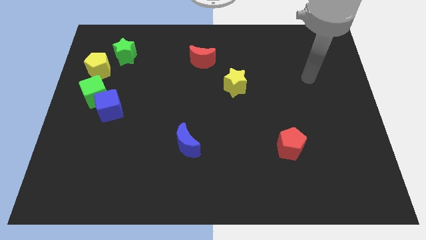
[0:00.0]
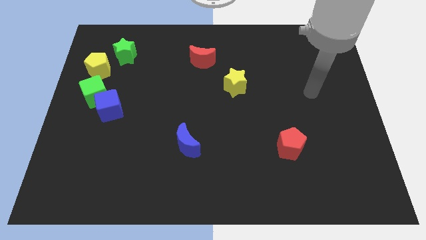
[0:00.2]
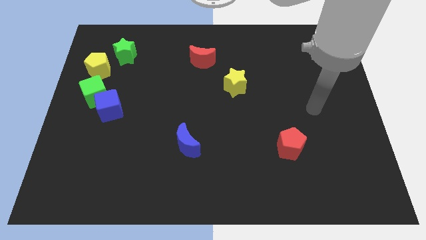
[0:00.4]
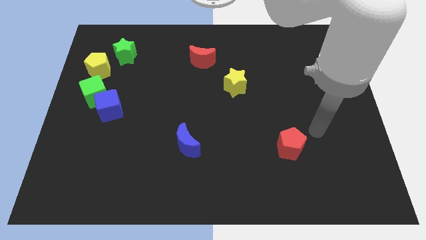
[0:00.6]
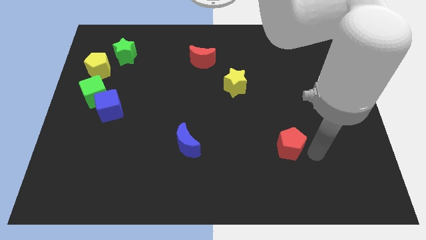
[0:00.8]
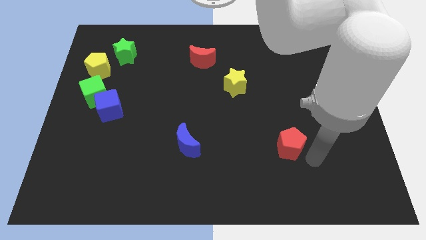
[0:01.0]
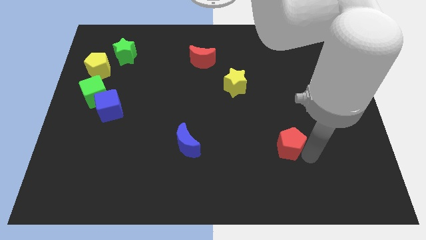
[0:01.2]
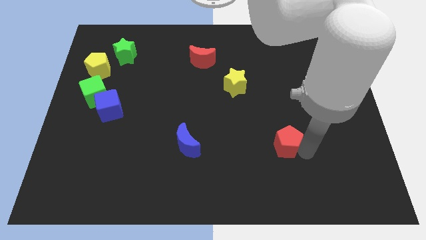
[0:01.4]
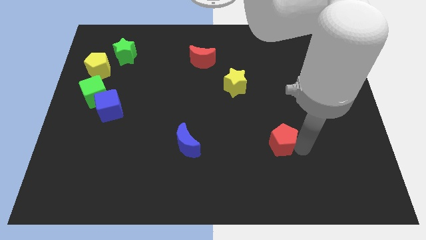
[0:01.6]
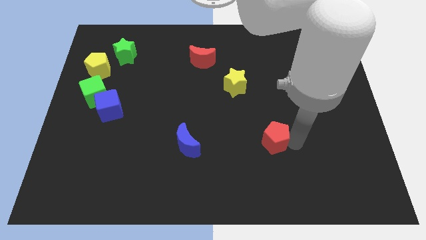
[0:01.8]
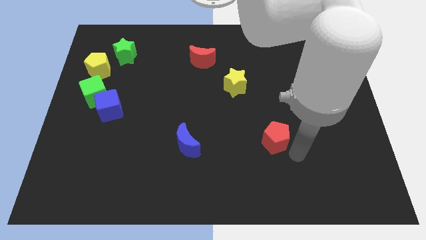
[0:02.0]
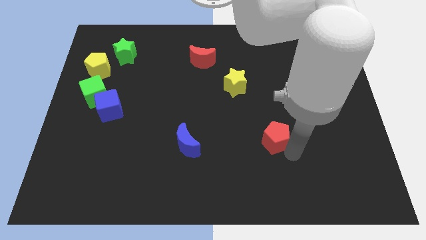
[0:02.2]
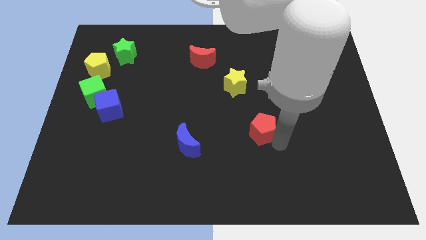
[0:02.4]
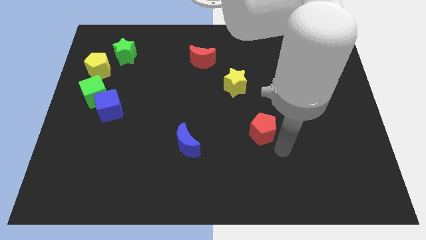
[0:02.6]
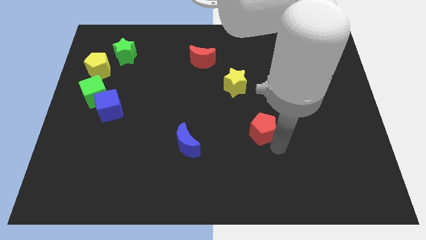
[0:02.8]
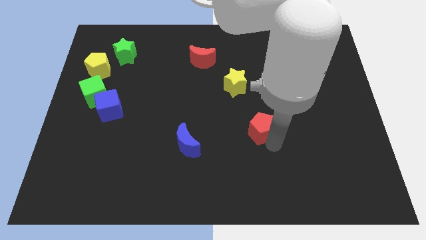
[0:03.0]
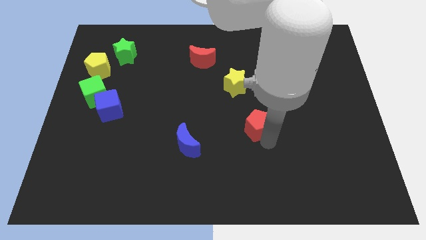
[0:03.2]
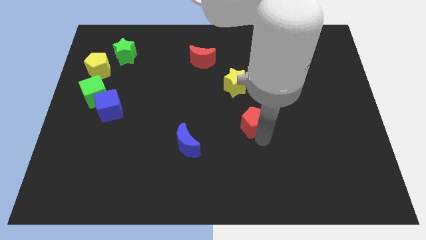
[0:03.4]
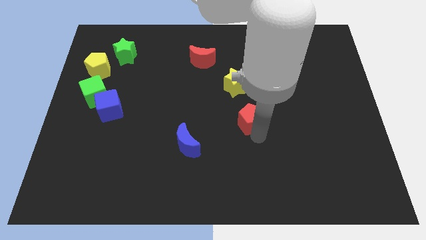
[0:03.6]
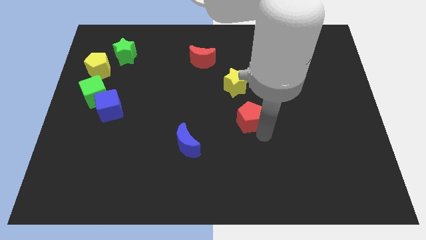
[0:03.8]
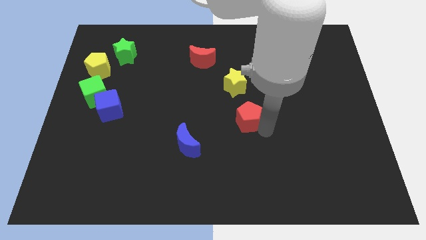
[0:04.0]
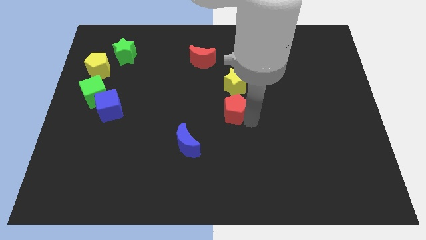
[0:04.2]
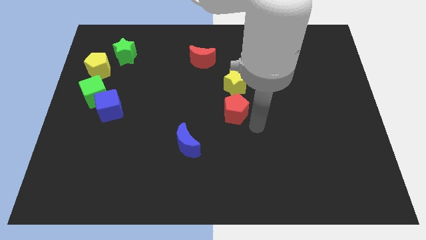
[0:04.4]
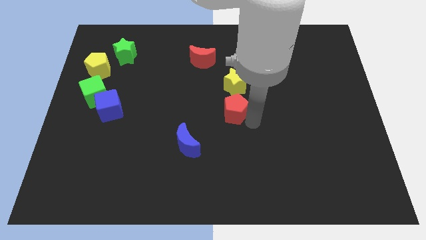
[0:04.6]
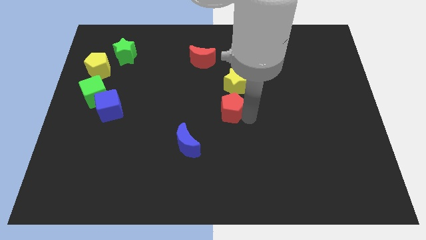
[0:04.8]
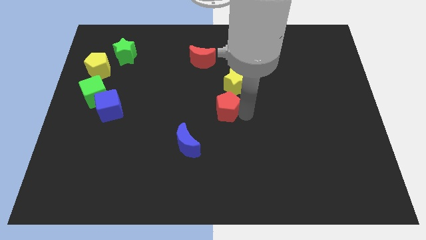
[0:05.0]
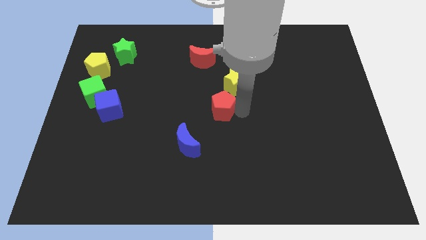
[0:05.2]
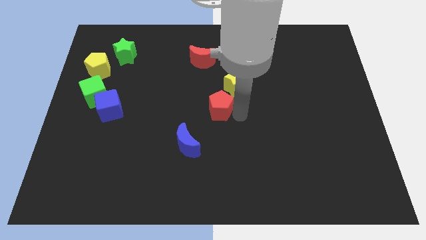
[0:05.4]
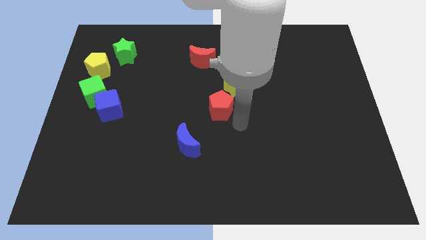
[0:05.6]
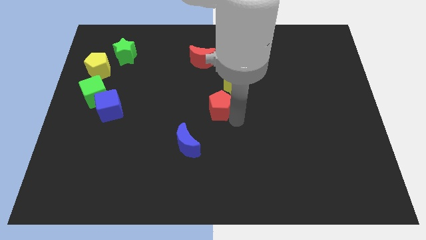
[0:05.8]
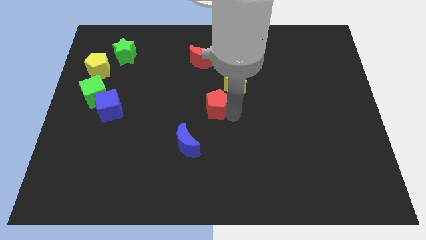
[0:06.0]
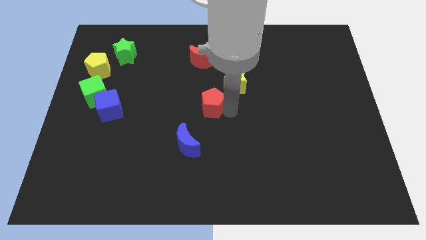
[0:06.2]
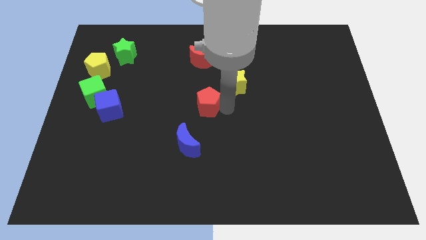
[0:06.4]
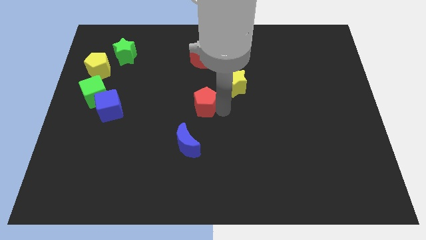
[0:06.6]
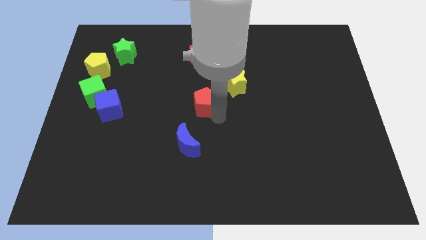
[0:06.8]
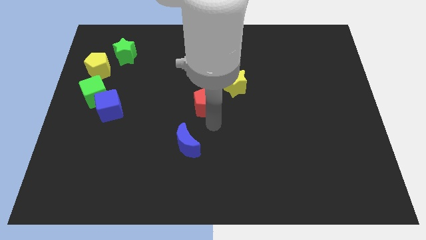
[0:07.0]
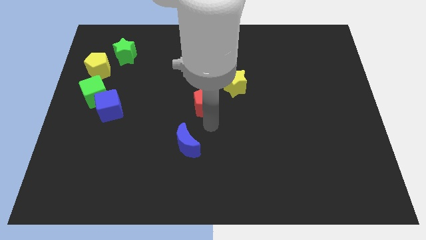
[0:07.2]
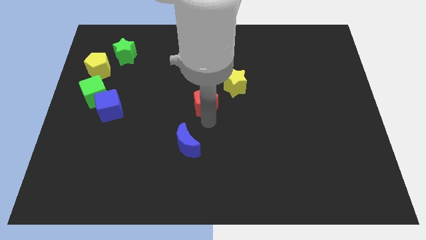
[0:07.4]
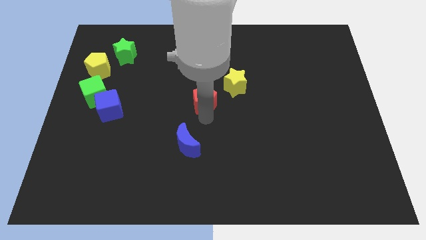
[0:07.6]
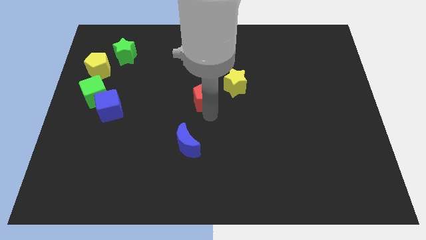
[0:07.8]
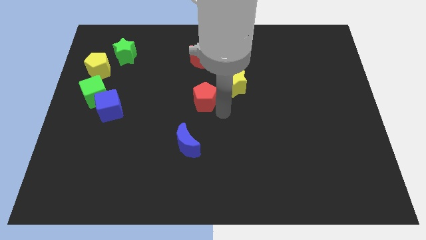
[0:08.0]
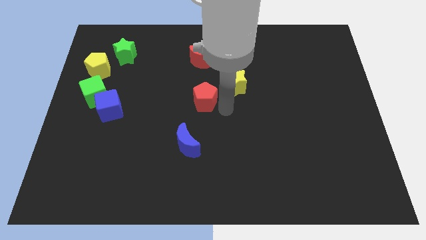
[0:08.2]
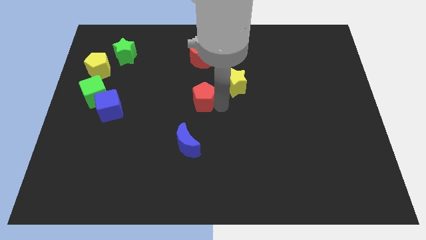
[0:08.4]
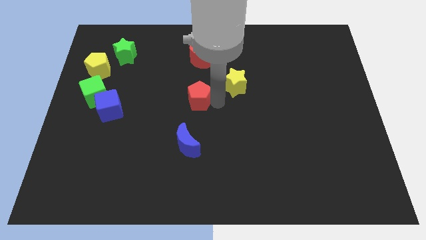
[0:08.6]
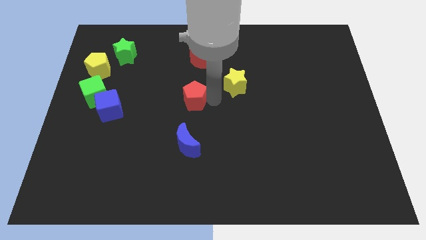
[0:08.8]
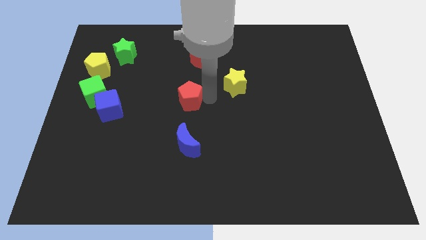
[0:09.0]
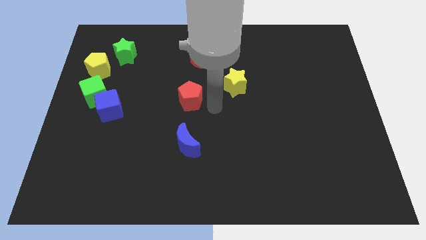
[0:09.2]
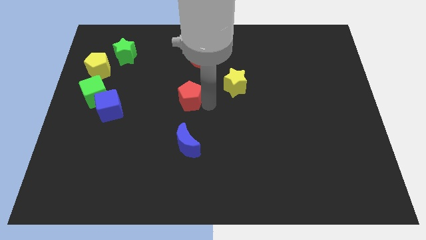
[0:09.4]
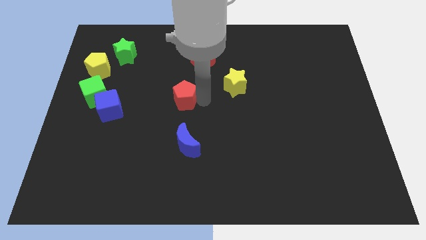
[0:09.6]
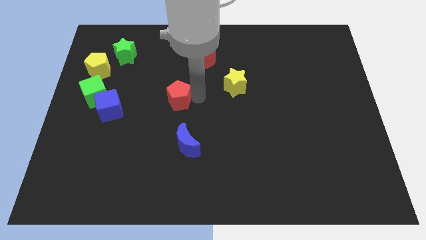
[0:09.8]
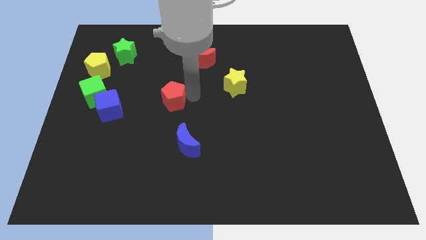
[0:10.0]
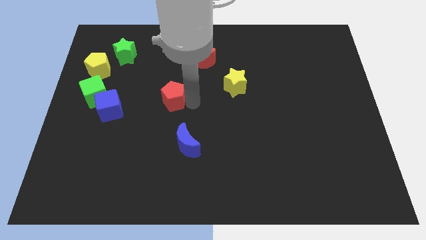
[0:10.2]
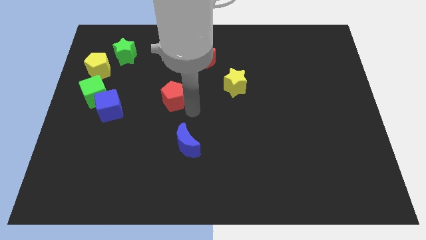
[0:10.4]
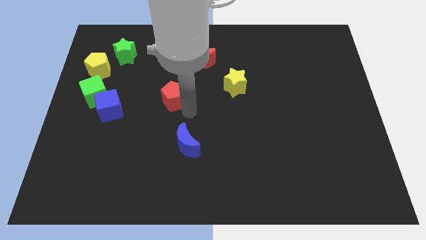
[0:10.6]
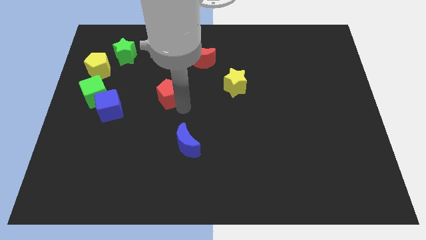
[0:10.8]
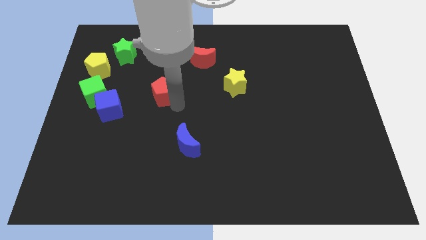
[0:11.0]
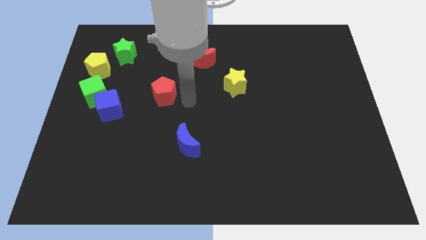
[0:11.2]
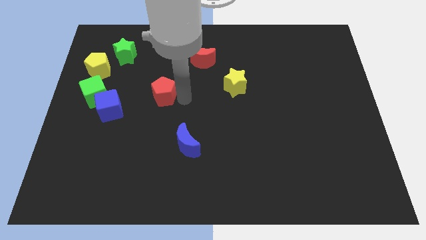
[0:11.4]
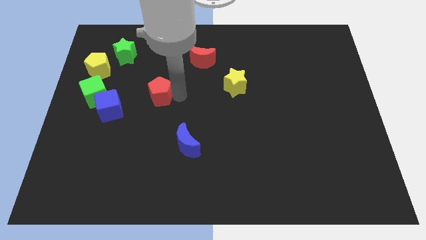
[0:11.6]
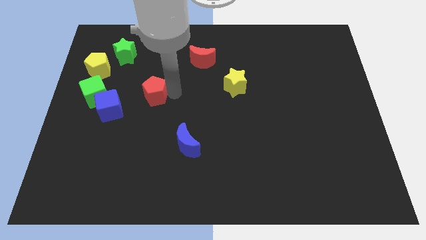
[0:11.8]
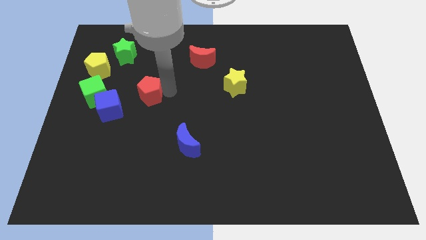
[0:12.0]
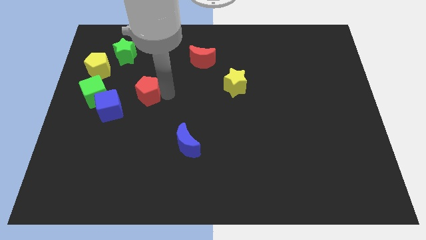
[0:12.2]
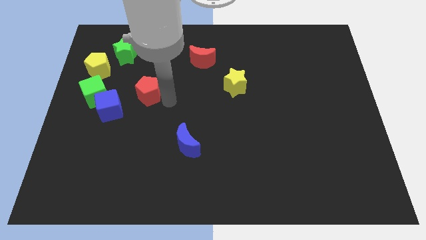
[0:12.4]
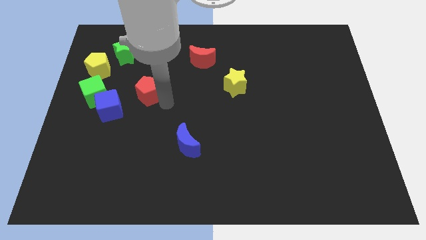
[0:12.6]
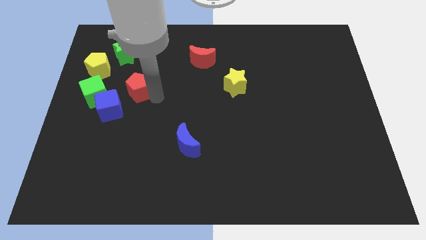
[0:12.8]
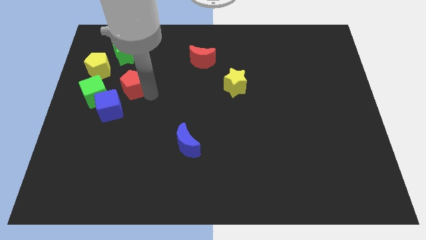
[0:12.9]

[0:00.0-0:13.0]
put the red pentagon below the green star

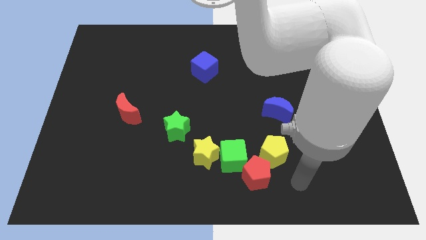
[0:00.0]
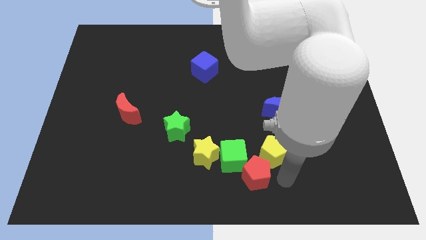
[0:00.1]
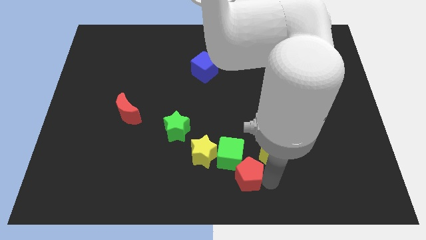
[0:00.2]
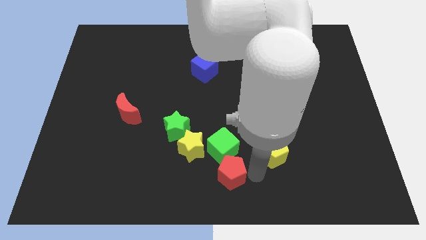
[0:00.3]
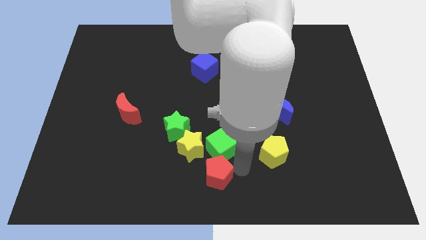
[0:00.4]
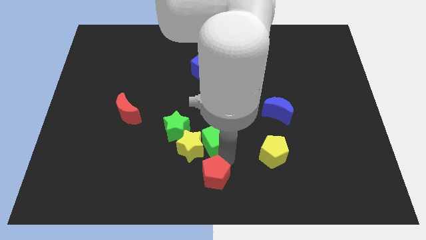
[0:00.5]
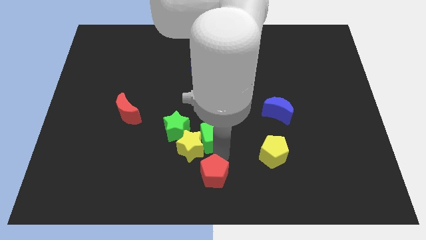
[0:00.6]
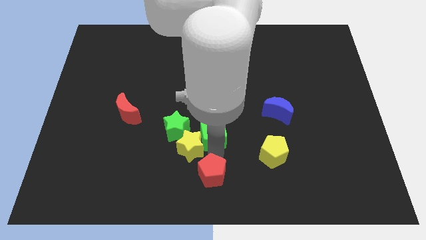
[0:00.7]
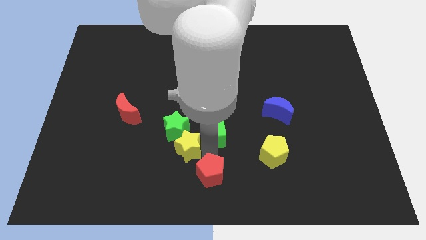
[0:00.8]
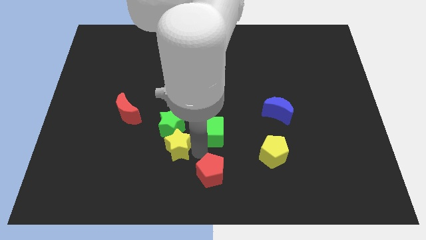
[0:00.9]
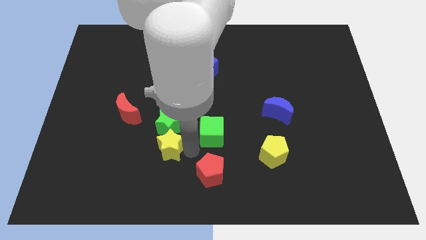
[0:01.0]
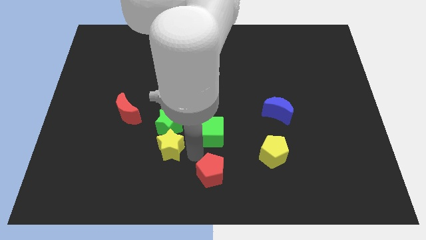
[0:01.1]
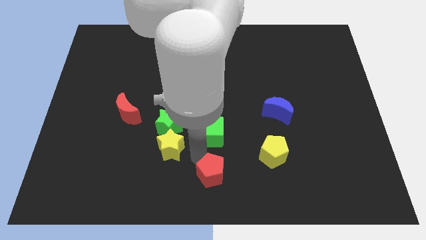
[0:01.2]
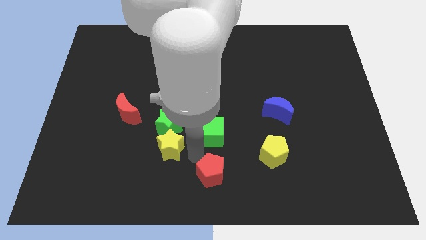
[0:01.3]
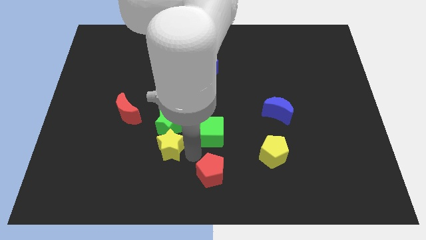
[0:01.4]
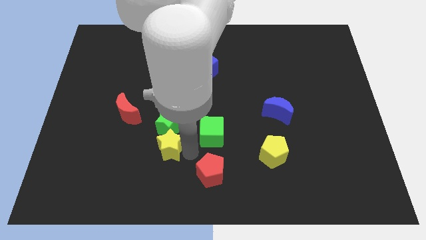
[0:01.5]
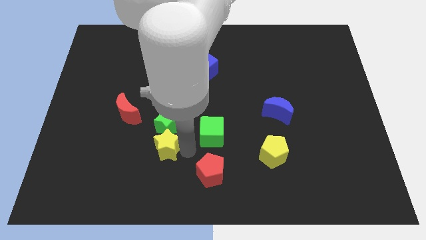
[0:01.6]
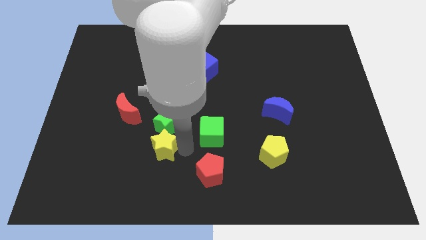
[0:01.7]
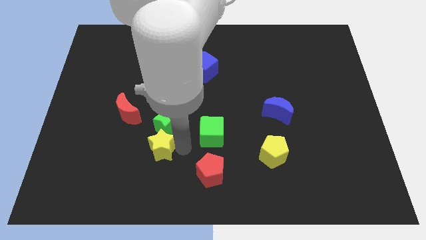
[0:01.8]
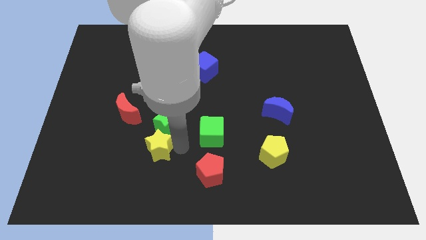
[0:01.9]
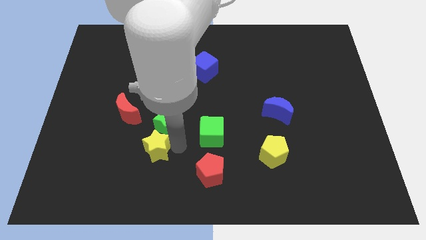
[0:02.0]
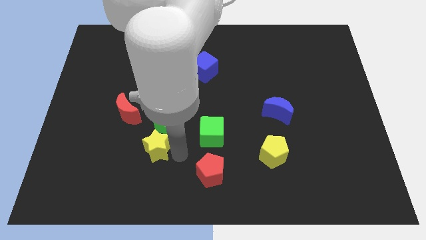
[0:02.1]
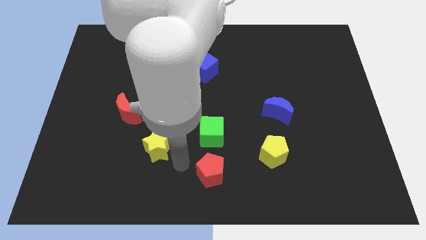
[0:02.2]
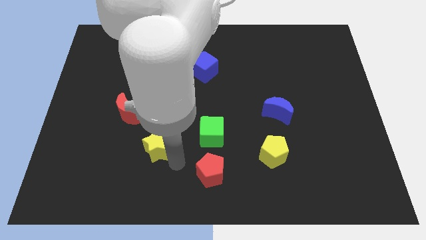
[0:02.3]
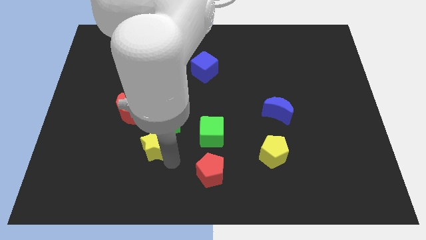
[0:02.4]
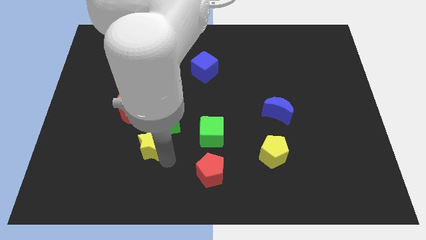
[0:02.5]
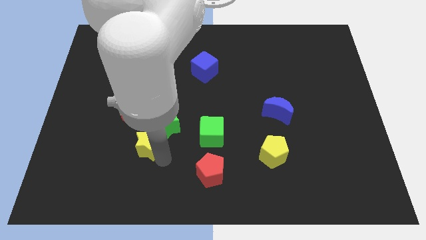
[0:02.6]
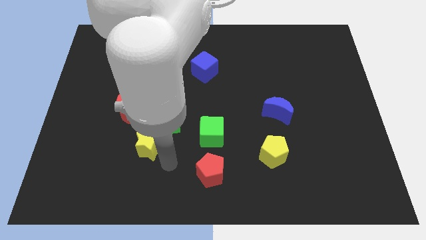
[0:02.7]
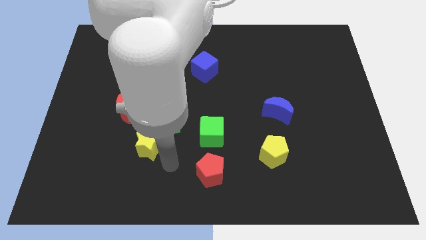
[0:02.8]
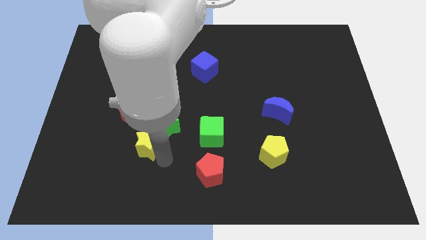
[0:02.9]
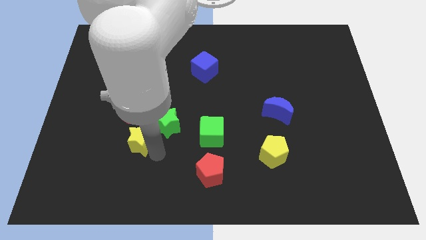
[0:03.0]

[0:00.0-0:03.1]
put the yellow star to the left of the green star
